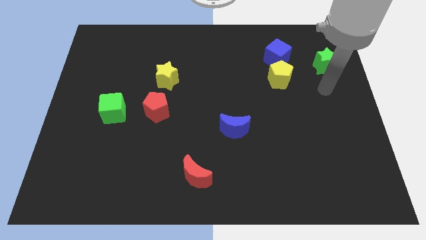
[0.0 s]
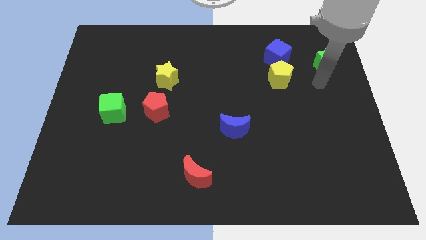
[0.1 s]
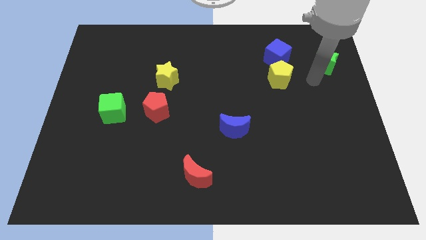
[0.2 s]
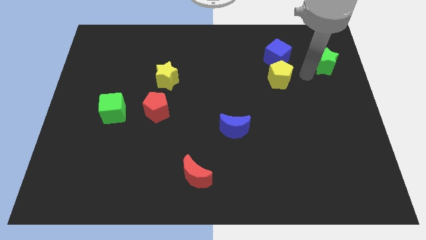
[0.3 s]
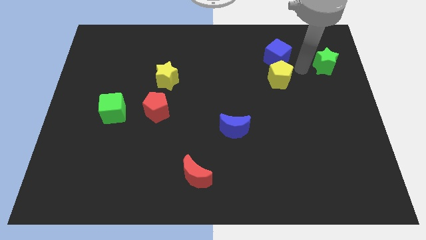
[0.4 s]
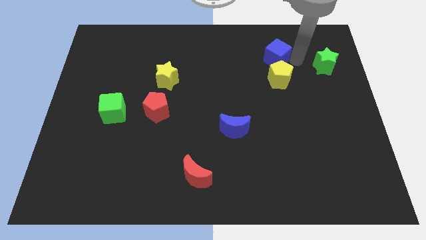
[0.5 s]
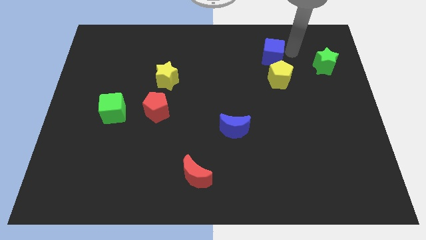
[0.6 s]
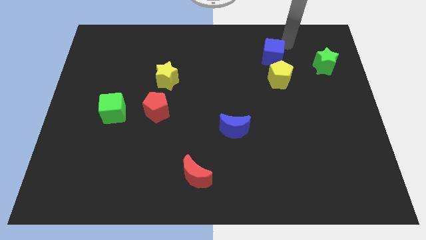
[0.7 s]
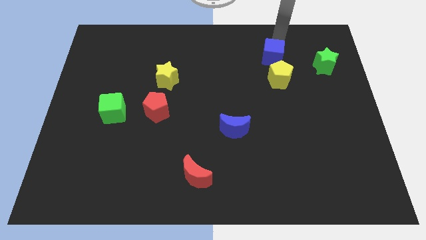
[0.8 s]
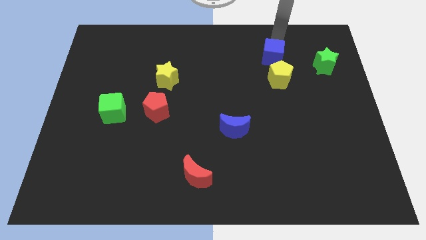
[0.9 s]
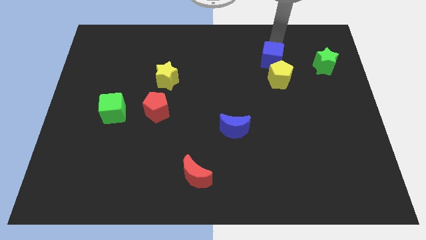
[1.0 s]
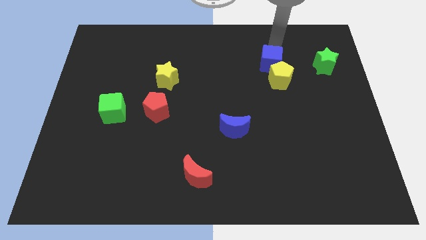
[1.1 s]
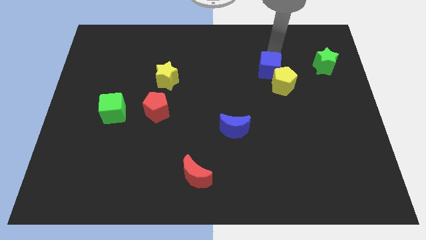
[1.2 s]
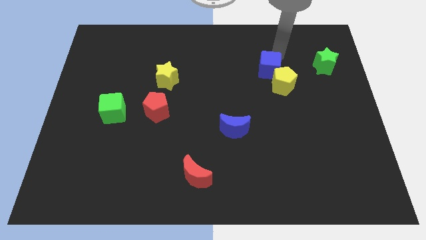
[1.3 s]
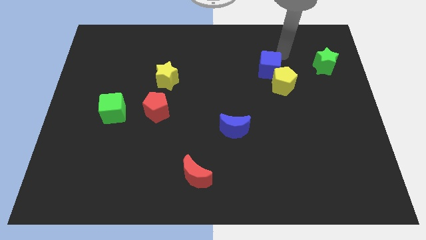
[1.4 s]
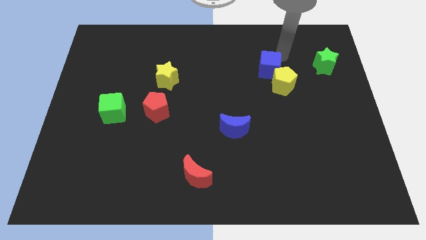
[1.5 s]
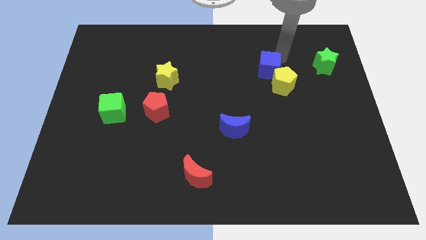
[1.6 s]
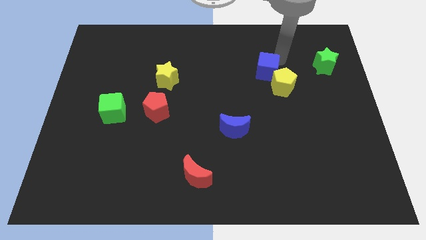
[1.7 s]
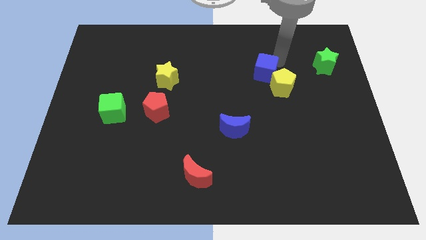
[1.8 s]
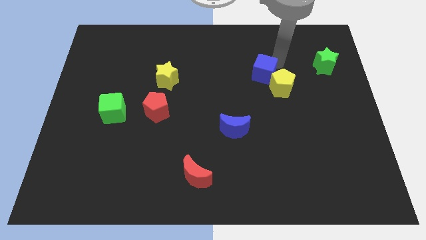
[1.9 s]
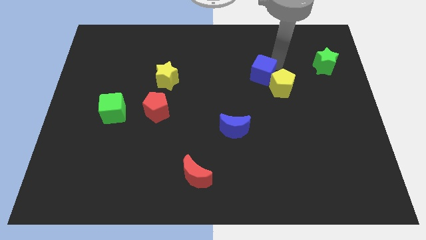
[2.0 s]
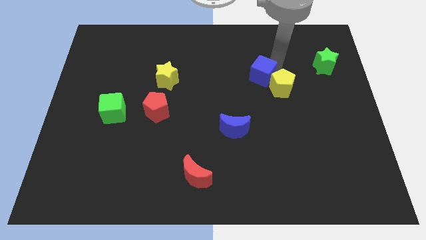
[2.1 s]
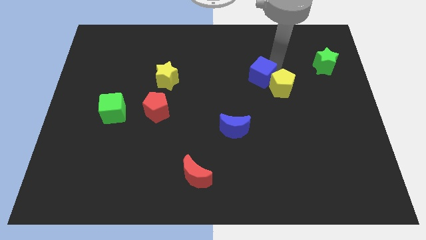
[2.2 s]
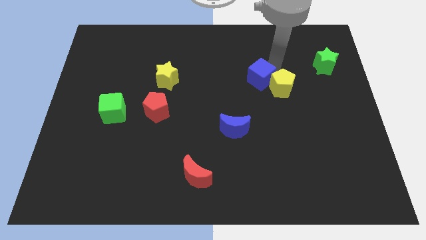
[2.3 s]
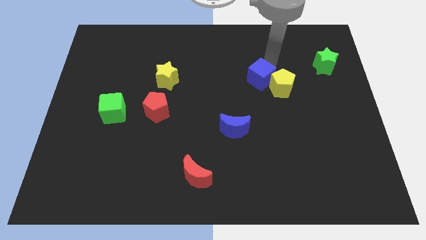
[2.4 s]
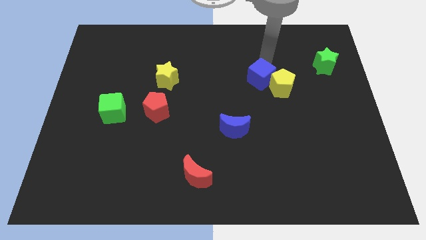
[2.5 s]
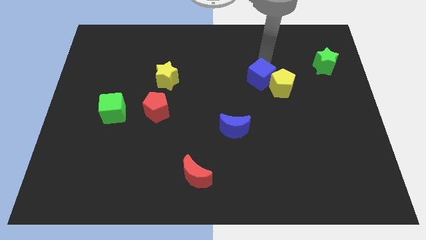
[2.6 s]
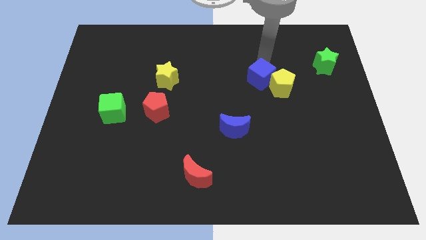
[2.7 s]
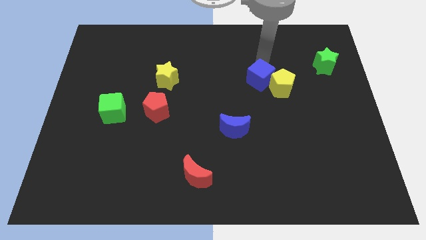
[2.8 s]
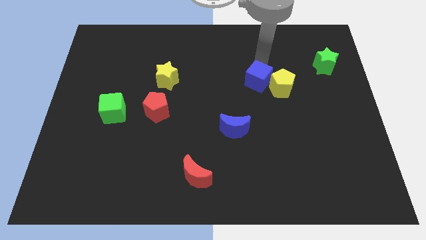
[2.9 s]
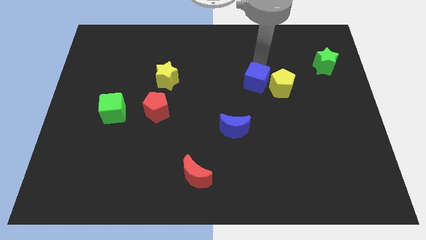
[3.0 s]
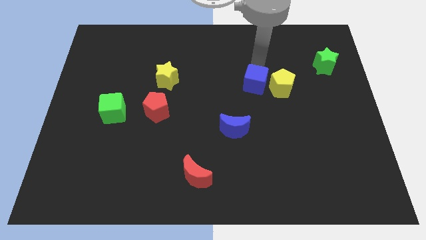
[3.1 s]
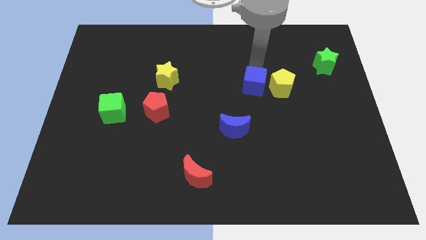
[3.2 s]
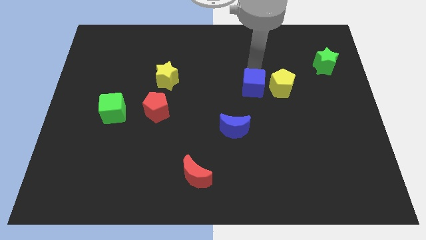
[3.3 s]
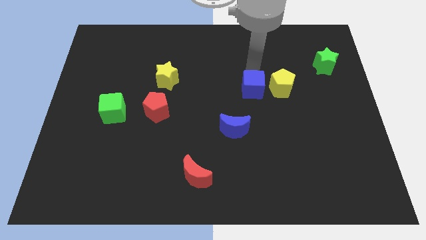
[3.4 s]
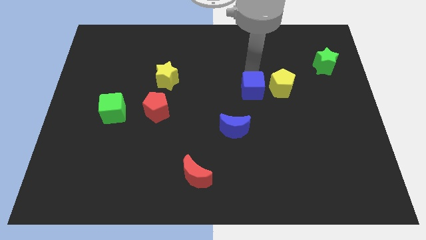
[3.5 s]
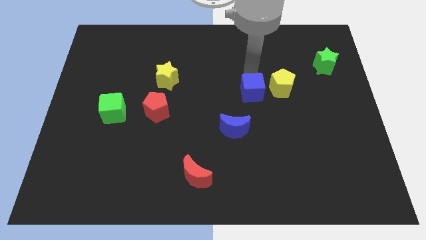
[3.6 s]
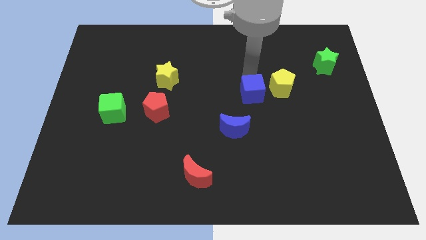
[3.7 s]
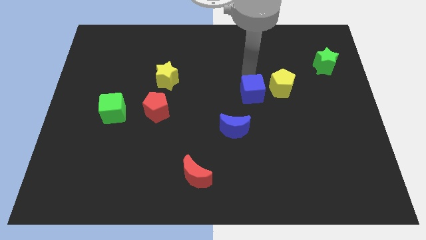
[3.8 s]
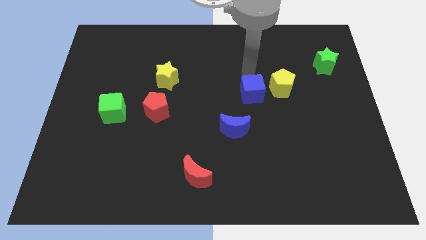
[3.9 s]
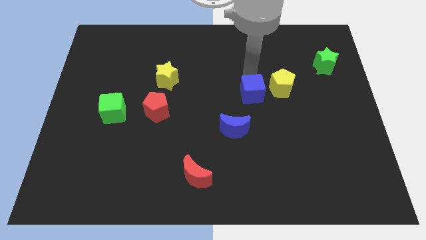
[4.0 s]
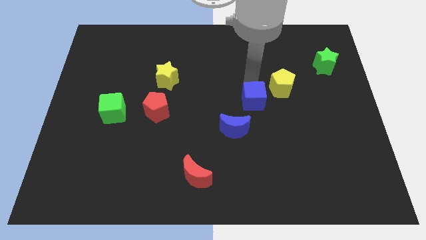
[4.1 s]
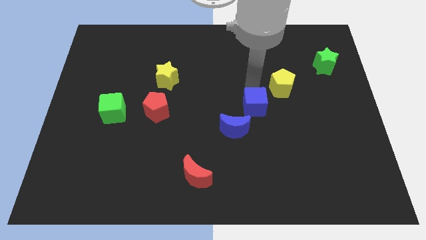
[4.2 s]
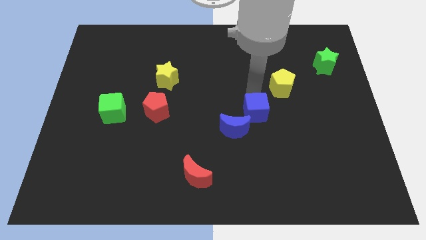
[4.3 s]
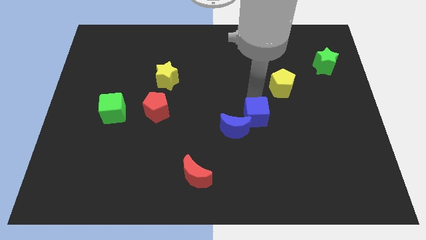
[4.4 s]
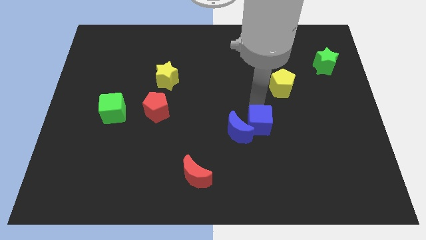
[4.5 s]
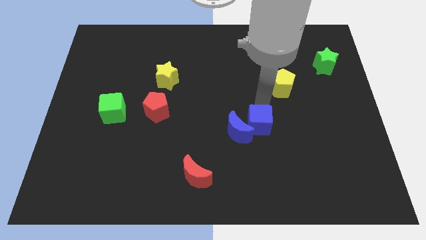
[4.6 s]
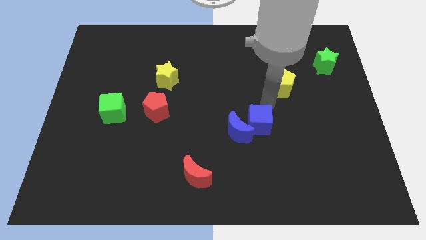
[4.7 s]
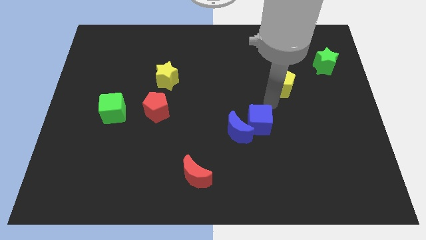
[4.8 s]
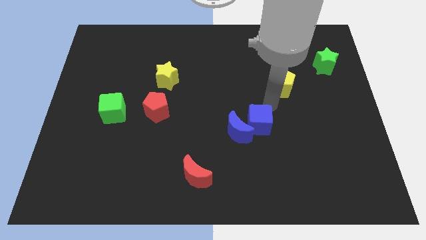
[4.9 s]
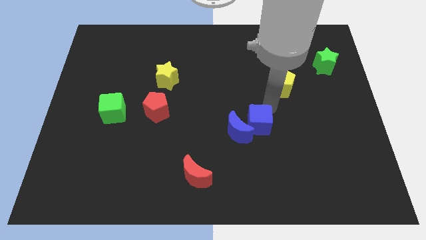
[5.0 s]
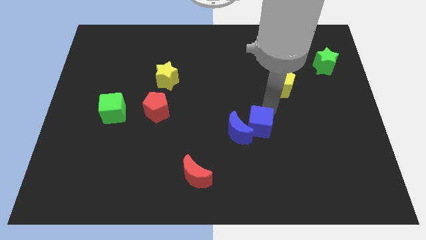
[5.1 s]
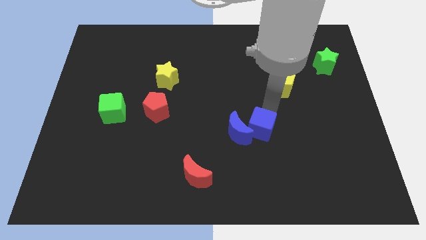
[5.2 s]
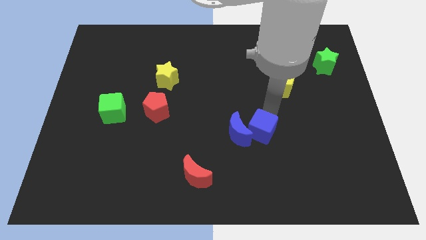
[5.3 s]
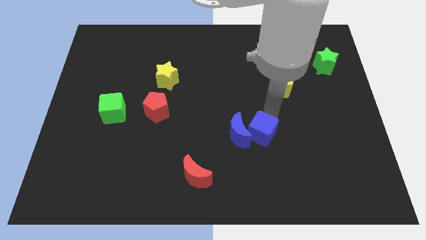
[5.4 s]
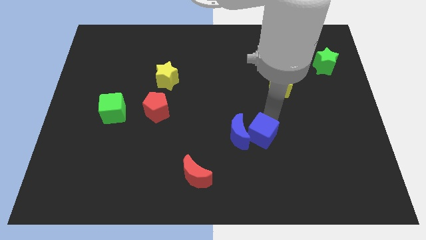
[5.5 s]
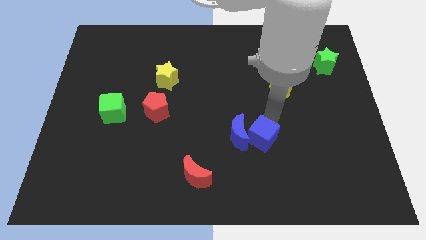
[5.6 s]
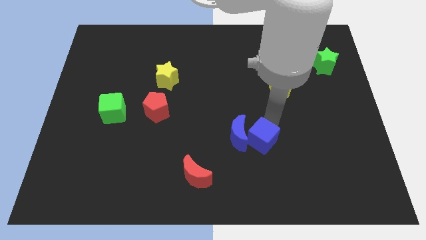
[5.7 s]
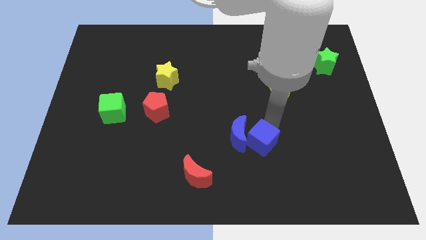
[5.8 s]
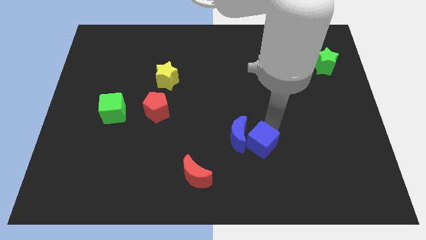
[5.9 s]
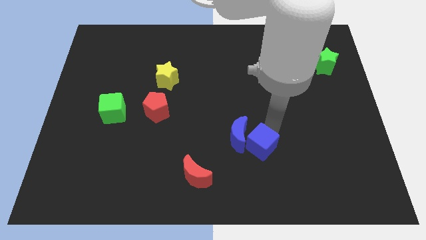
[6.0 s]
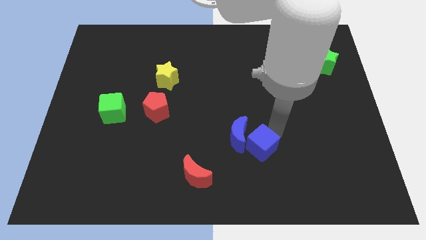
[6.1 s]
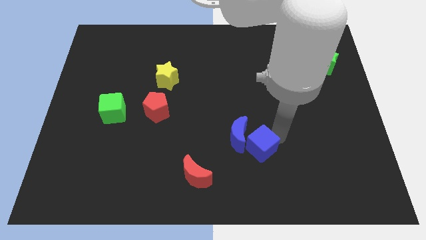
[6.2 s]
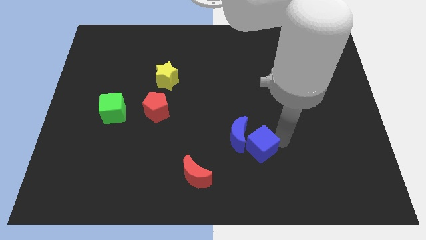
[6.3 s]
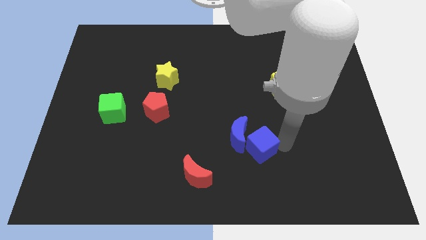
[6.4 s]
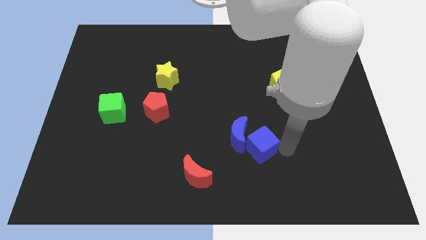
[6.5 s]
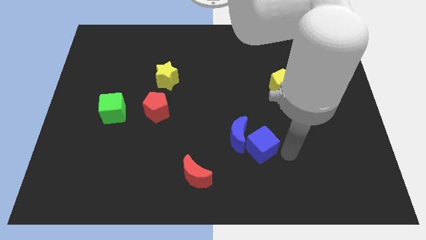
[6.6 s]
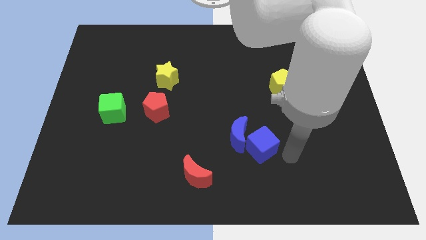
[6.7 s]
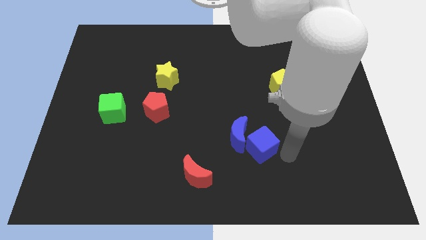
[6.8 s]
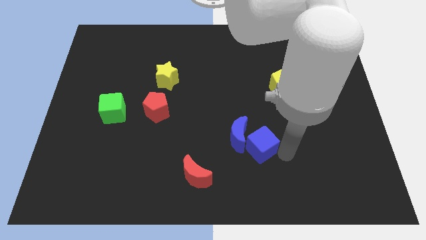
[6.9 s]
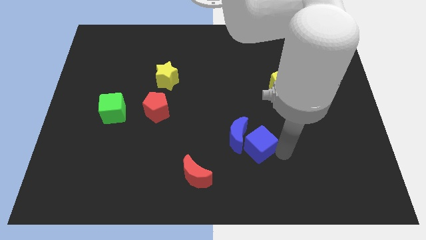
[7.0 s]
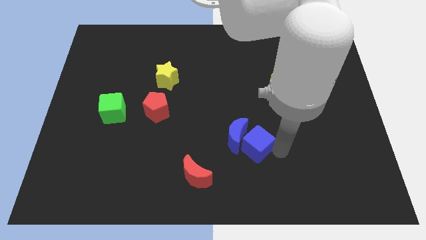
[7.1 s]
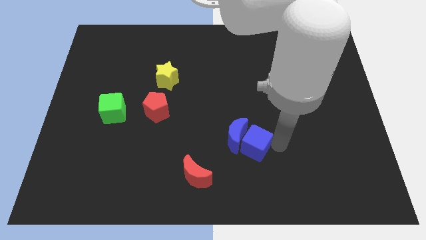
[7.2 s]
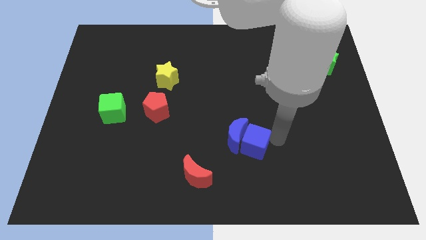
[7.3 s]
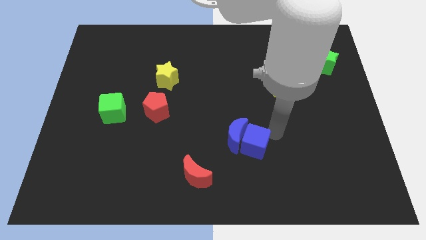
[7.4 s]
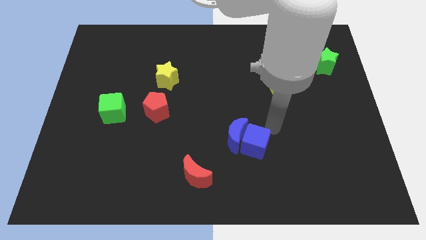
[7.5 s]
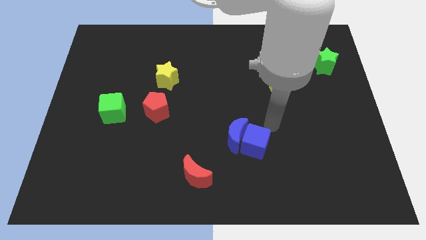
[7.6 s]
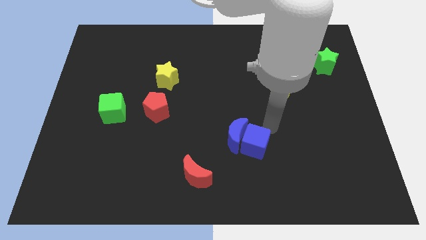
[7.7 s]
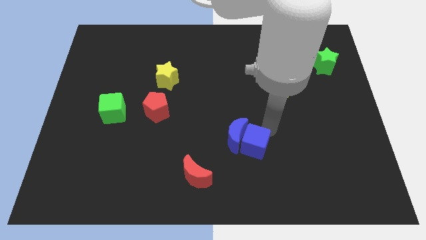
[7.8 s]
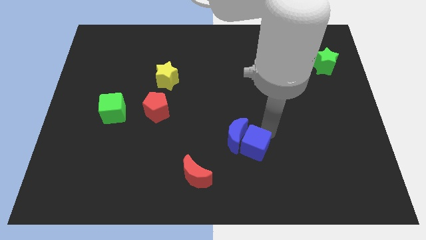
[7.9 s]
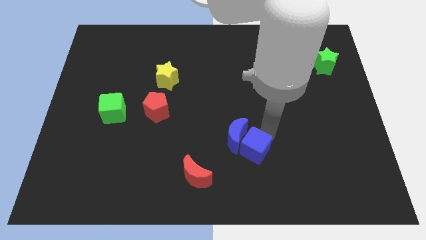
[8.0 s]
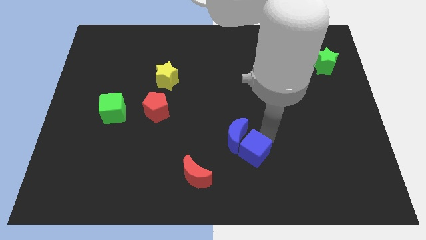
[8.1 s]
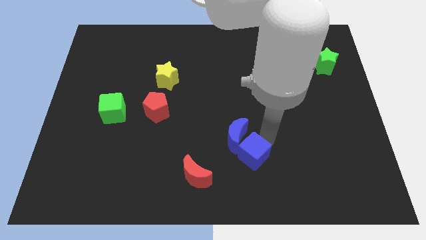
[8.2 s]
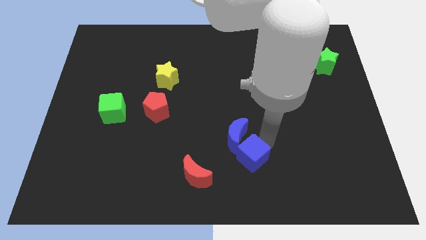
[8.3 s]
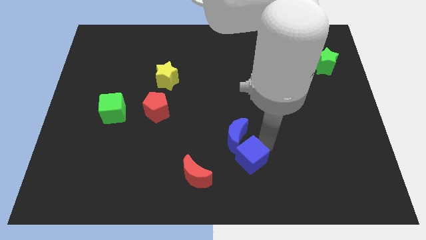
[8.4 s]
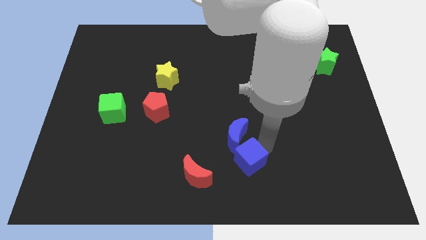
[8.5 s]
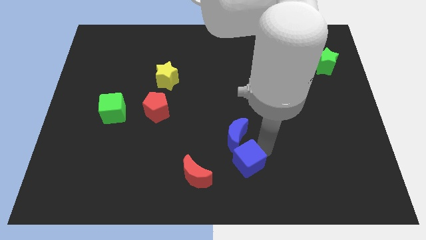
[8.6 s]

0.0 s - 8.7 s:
push the blue cube to the bottom
